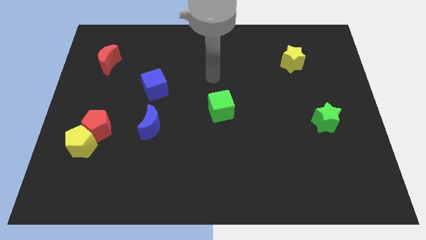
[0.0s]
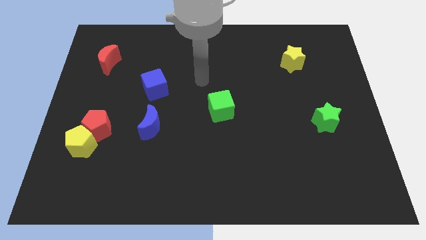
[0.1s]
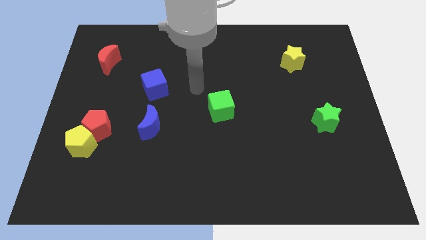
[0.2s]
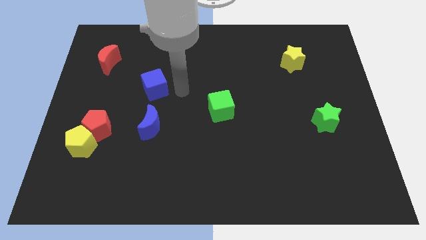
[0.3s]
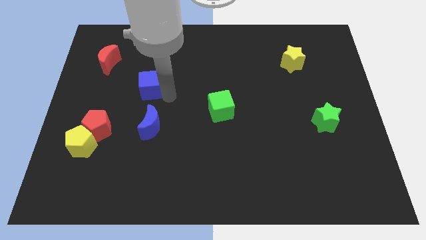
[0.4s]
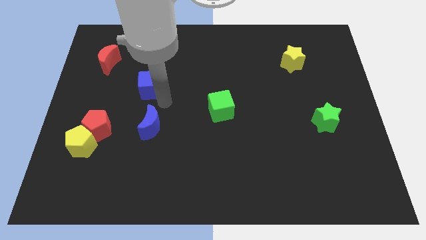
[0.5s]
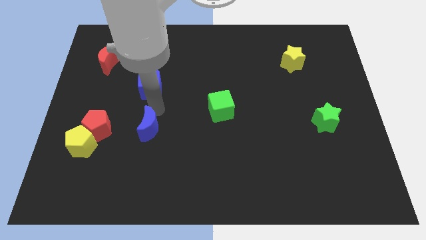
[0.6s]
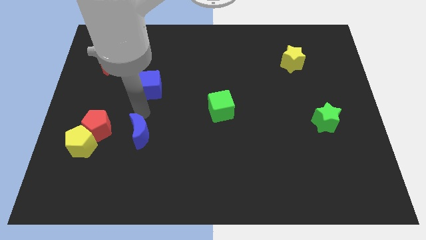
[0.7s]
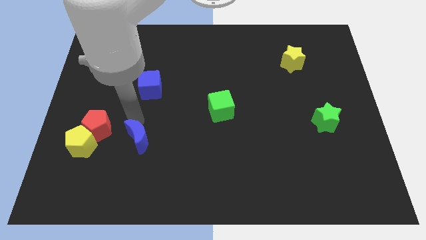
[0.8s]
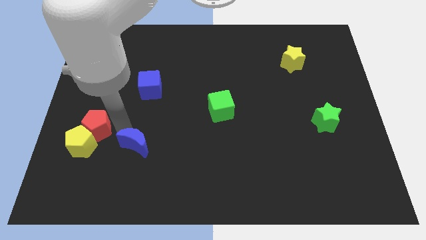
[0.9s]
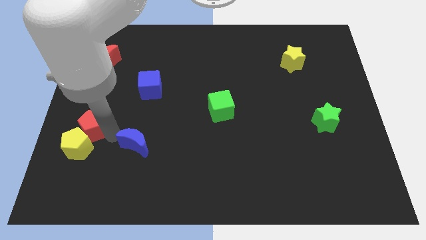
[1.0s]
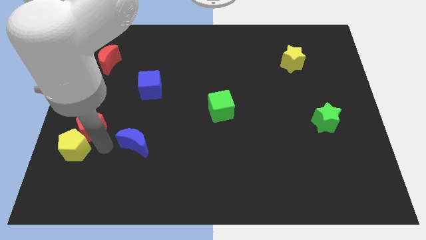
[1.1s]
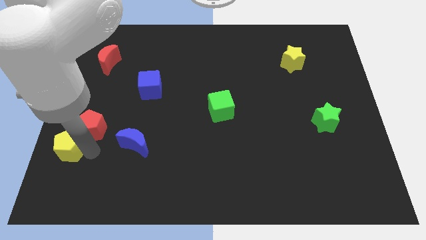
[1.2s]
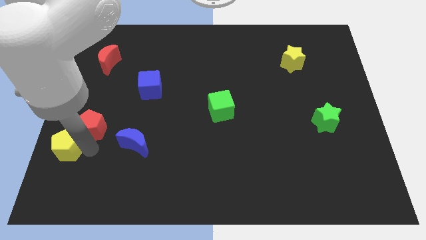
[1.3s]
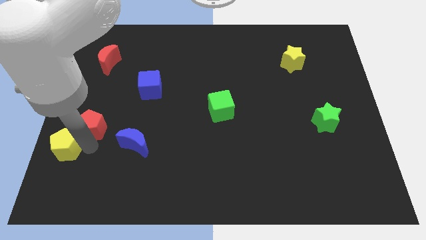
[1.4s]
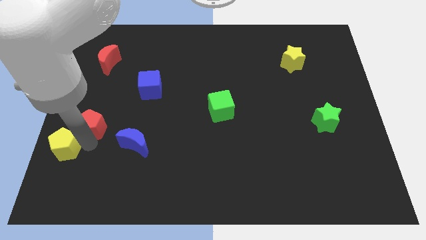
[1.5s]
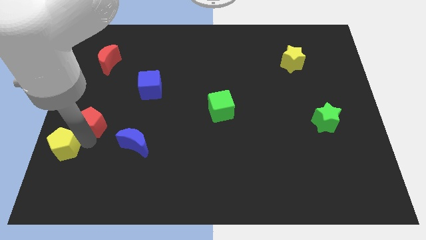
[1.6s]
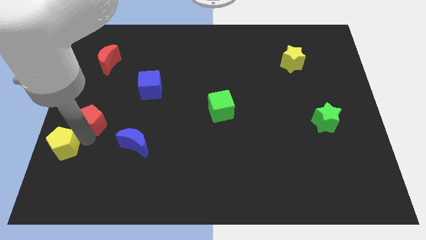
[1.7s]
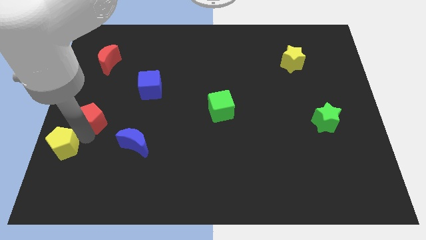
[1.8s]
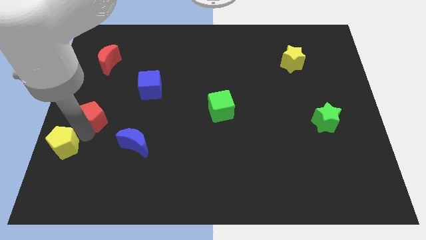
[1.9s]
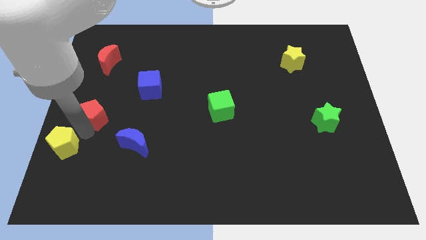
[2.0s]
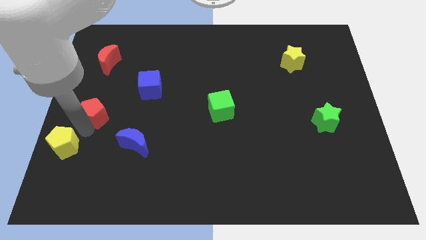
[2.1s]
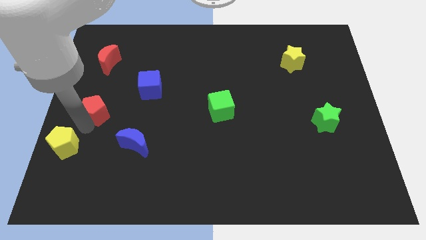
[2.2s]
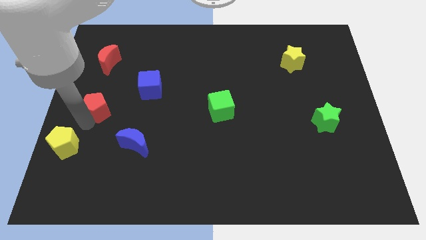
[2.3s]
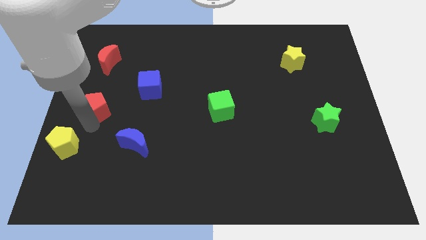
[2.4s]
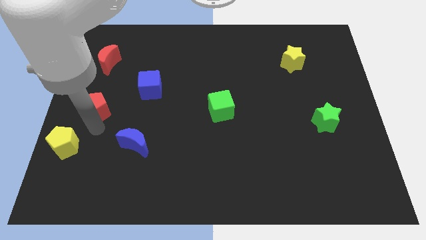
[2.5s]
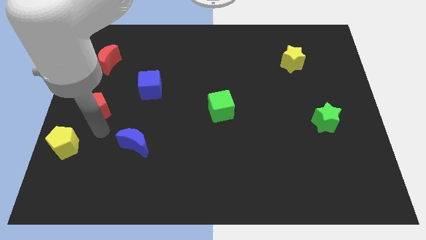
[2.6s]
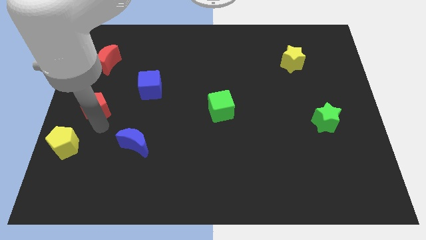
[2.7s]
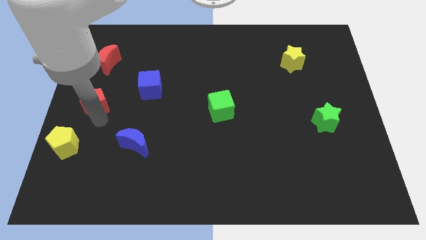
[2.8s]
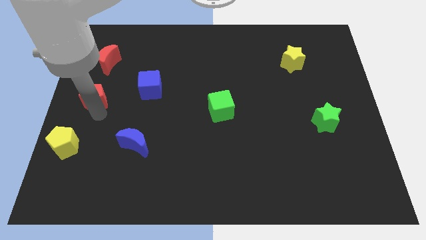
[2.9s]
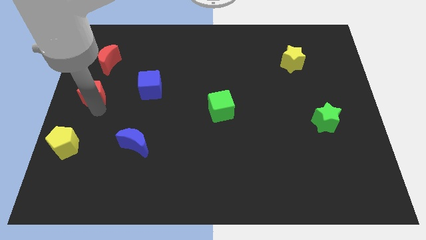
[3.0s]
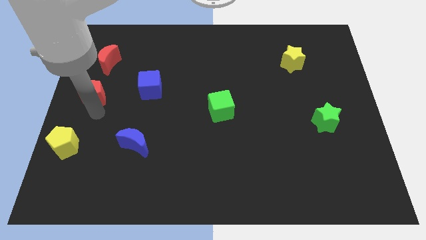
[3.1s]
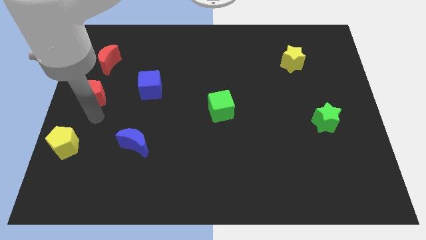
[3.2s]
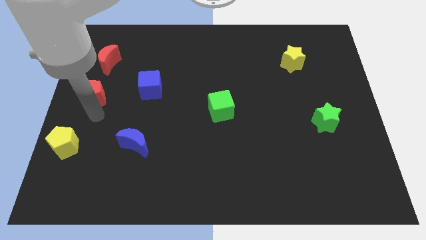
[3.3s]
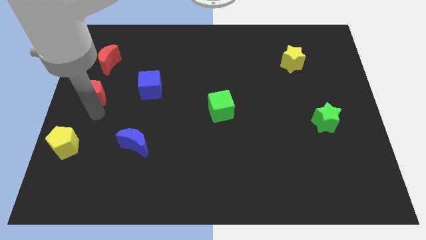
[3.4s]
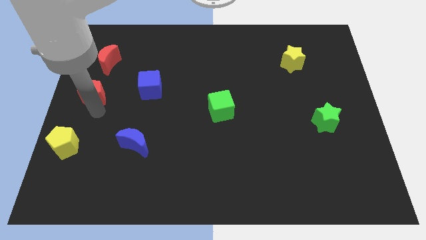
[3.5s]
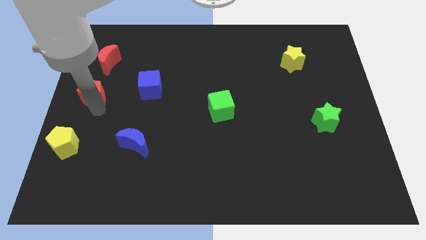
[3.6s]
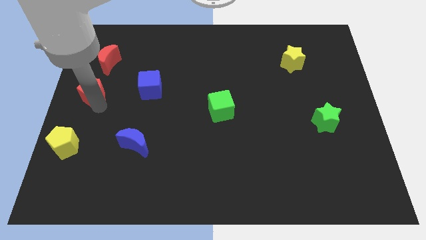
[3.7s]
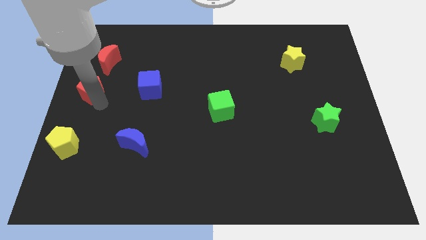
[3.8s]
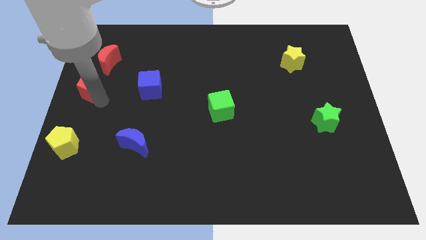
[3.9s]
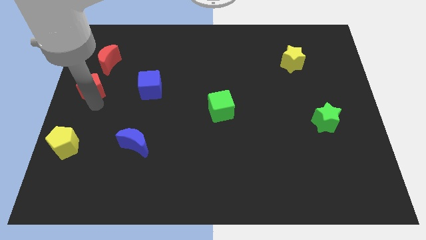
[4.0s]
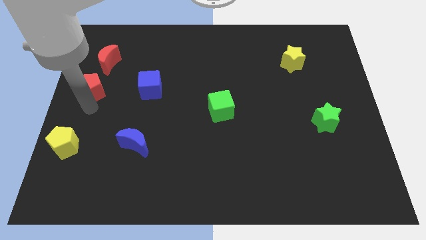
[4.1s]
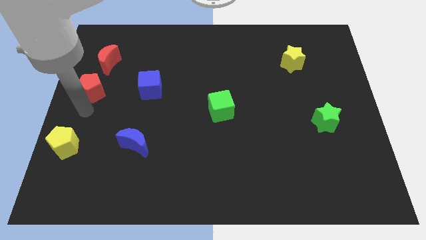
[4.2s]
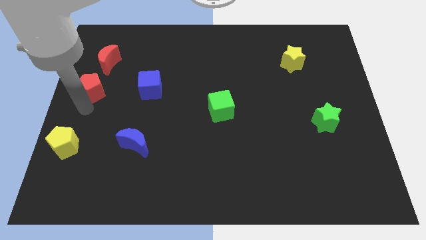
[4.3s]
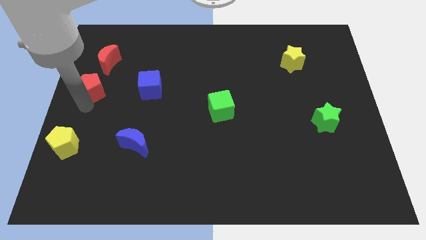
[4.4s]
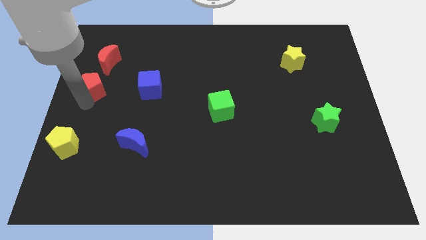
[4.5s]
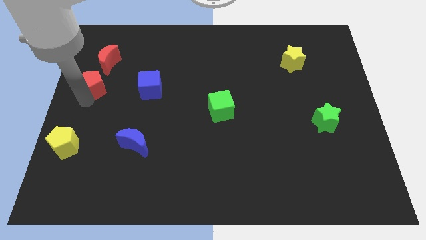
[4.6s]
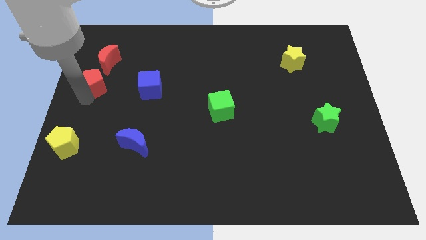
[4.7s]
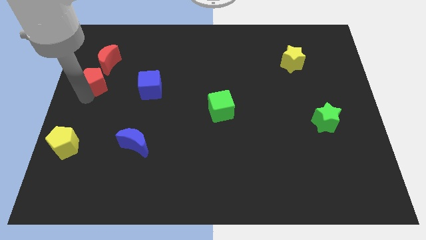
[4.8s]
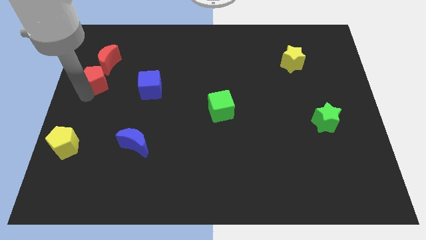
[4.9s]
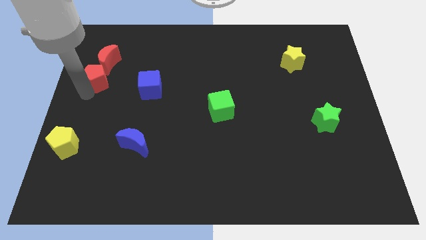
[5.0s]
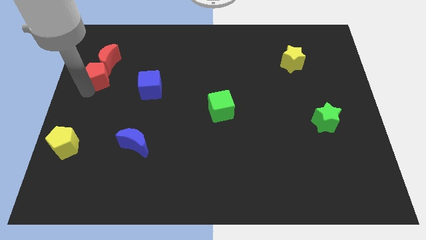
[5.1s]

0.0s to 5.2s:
slide the red pentagon towards the red moon

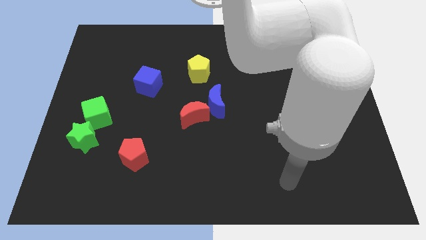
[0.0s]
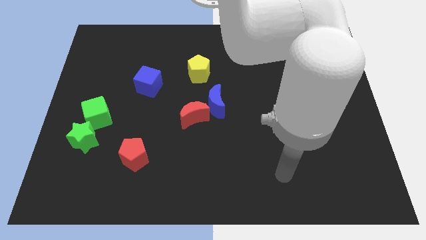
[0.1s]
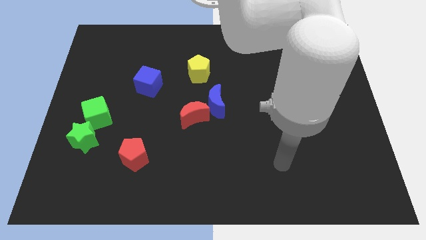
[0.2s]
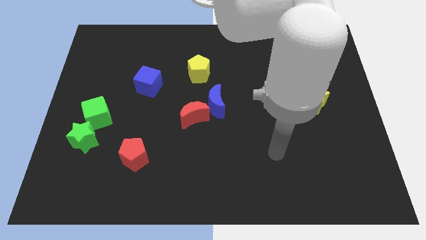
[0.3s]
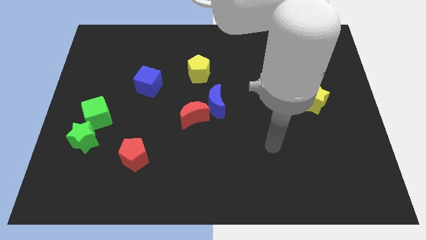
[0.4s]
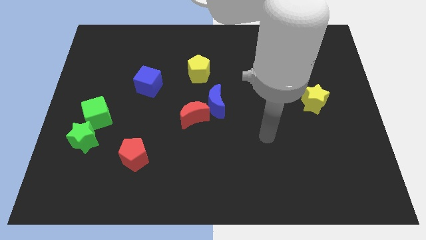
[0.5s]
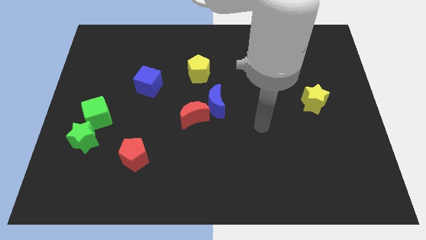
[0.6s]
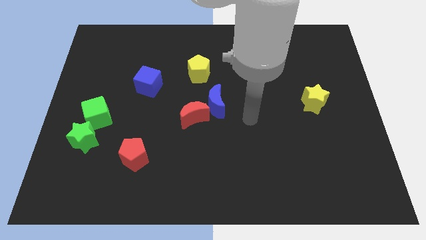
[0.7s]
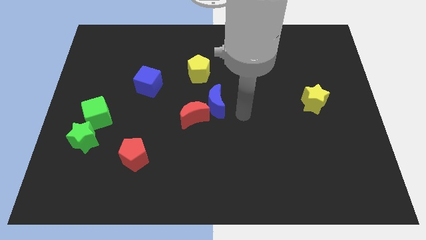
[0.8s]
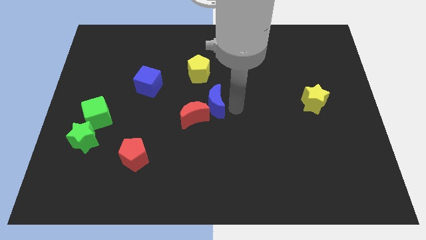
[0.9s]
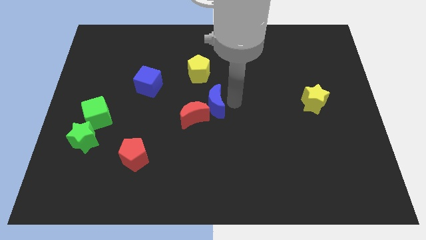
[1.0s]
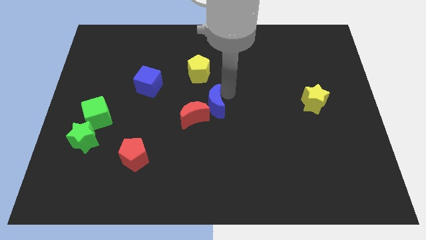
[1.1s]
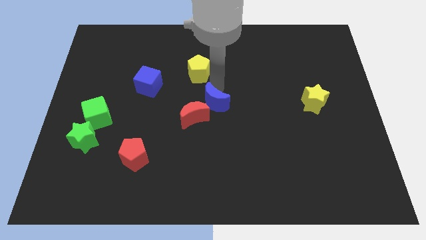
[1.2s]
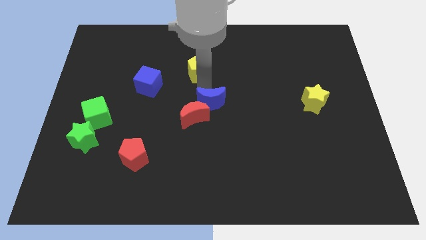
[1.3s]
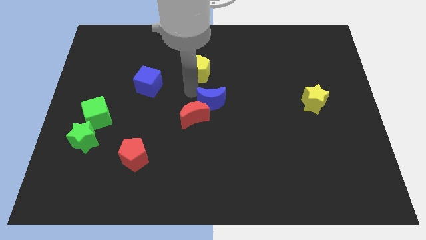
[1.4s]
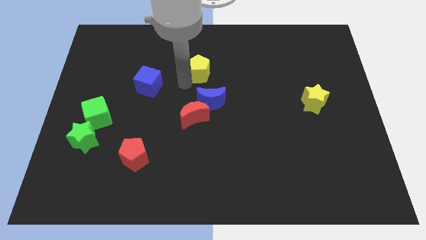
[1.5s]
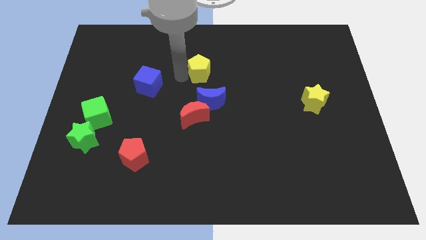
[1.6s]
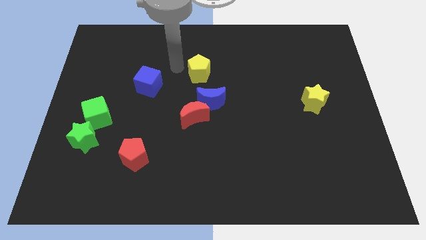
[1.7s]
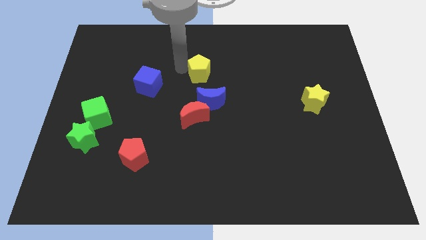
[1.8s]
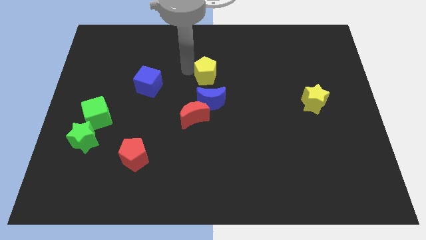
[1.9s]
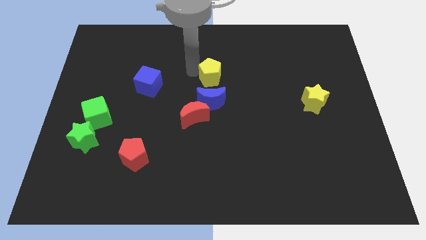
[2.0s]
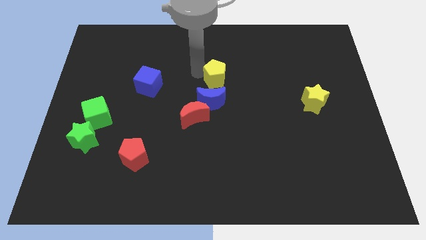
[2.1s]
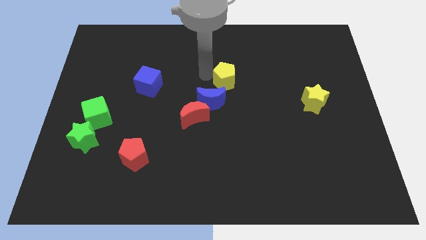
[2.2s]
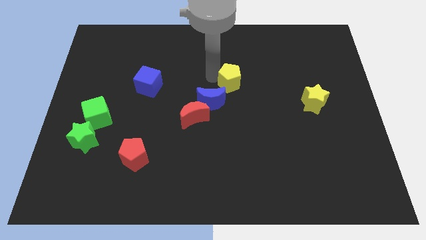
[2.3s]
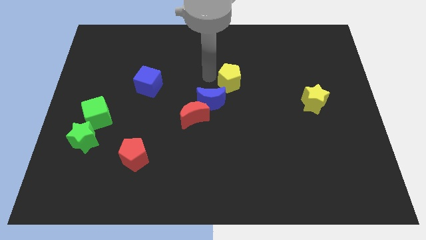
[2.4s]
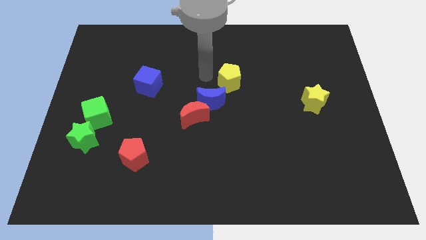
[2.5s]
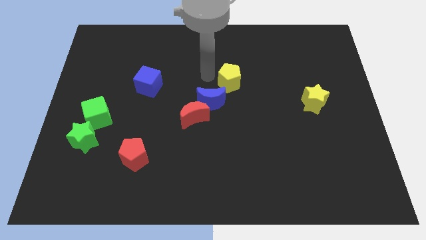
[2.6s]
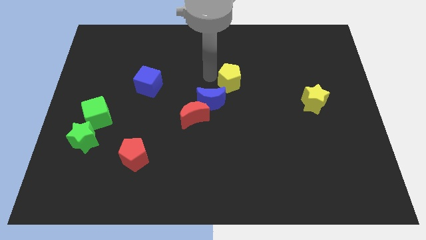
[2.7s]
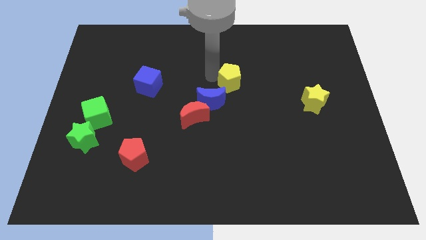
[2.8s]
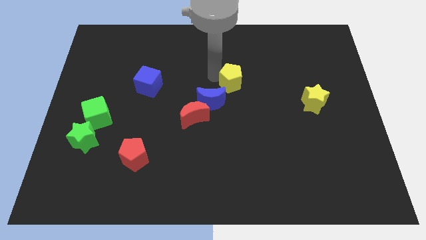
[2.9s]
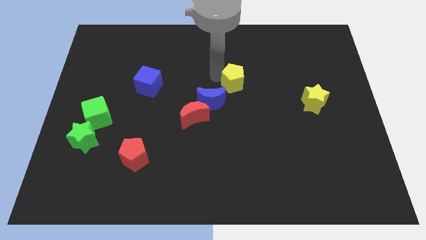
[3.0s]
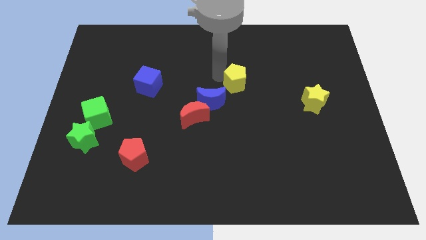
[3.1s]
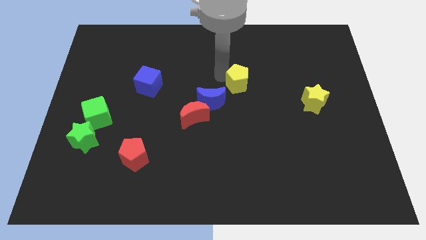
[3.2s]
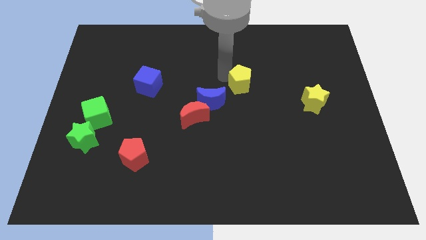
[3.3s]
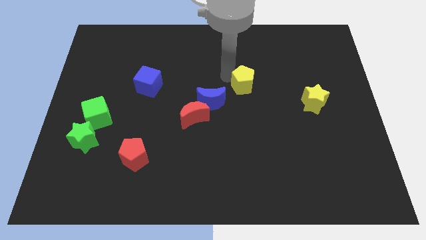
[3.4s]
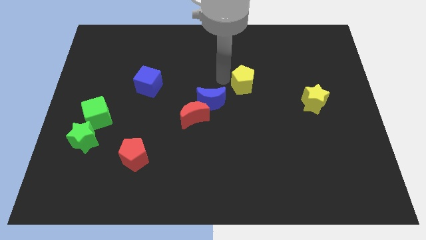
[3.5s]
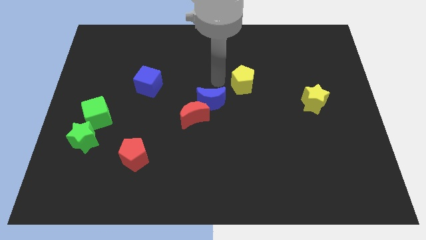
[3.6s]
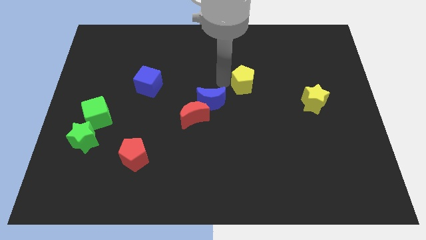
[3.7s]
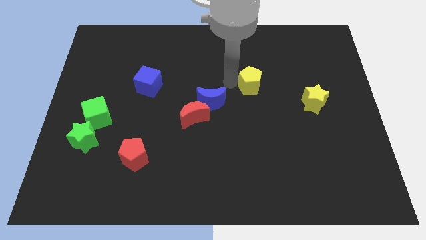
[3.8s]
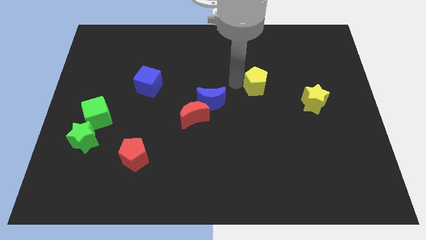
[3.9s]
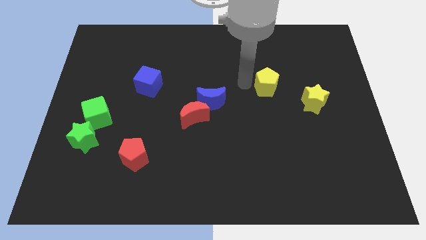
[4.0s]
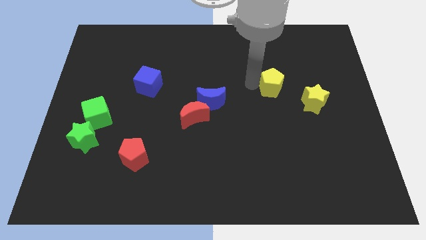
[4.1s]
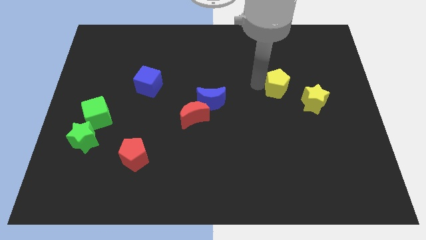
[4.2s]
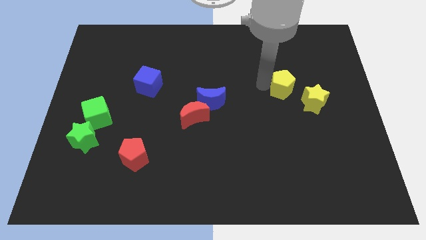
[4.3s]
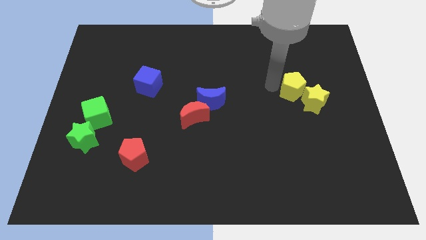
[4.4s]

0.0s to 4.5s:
push the yellow pentagon towards the yellow star
